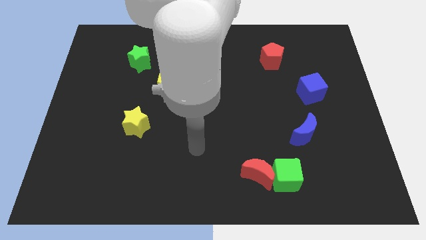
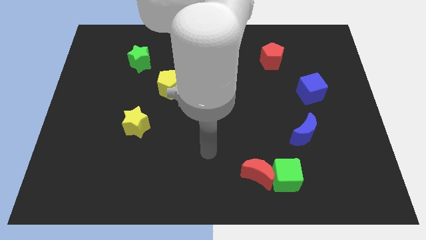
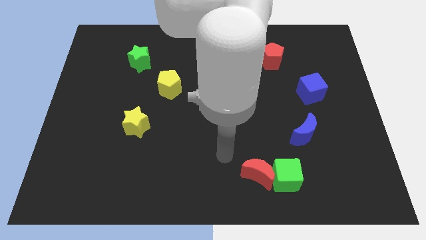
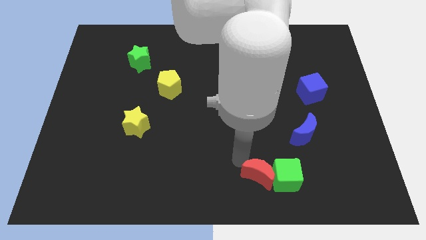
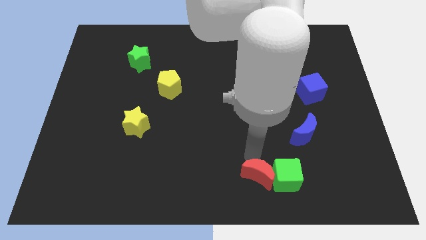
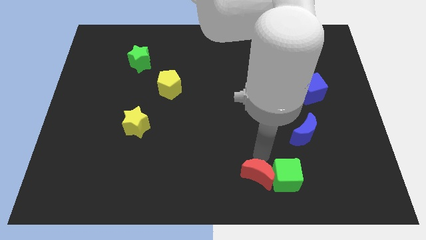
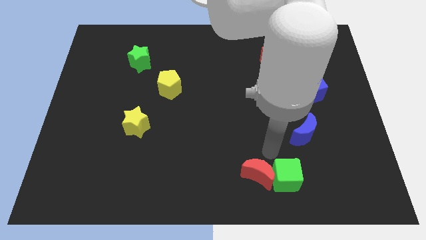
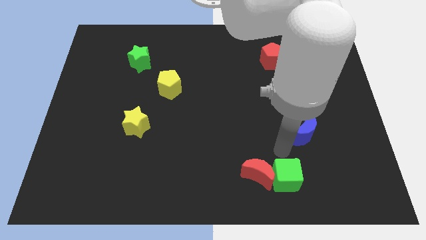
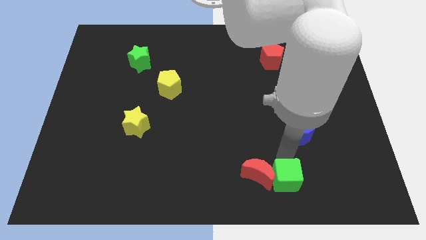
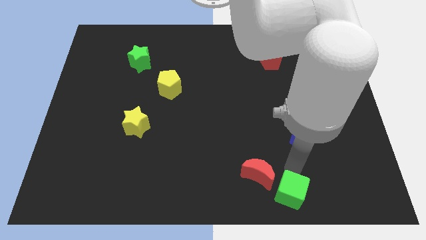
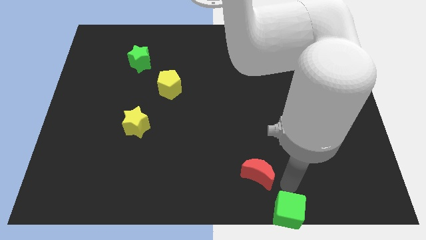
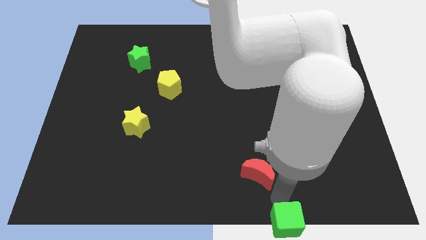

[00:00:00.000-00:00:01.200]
move the red moon away from the green cube

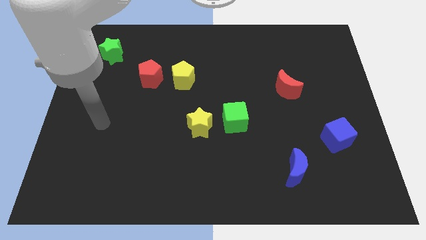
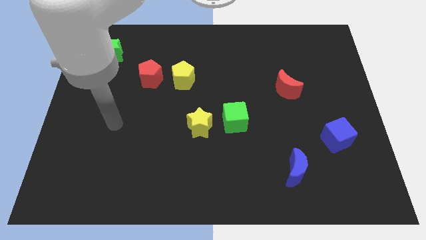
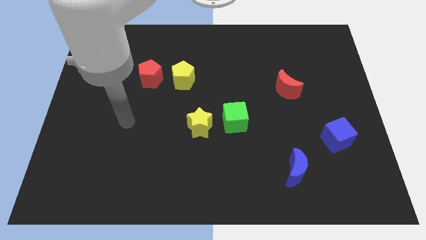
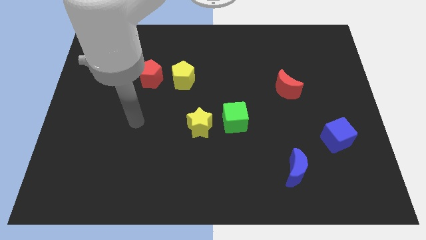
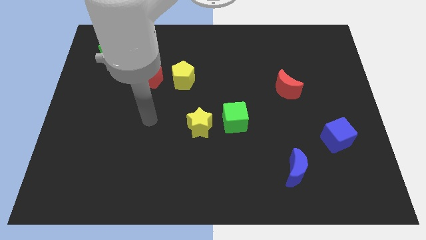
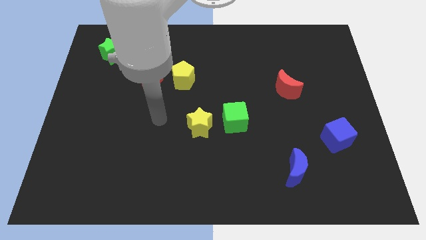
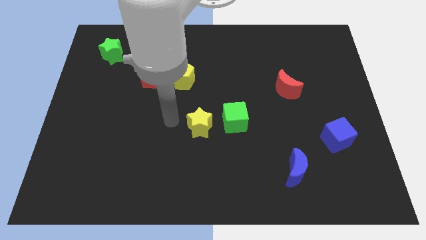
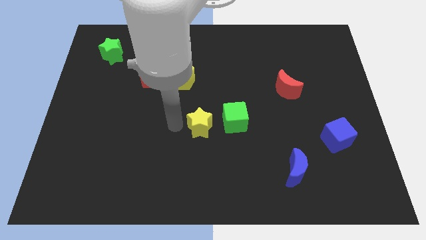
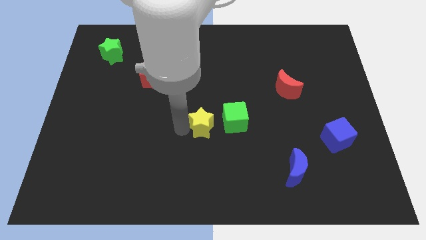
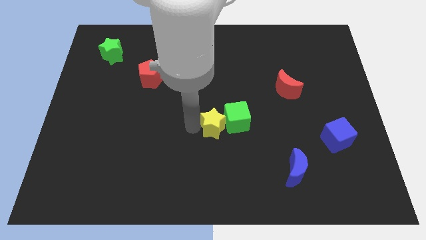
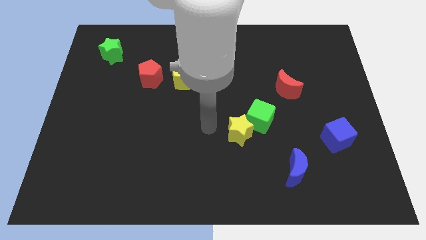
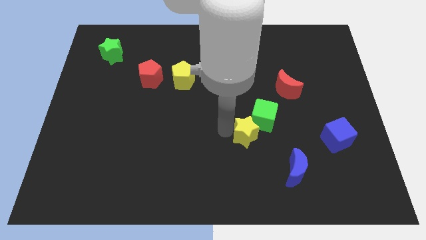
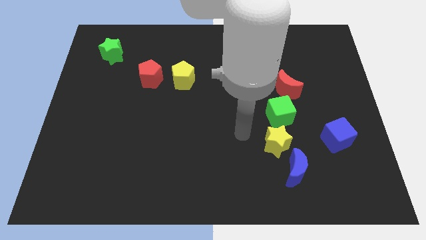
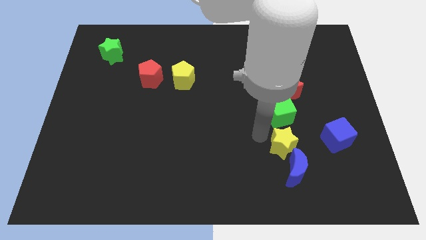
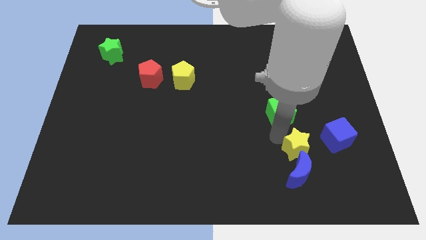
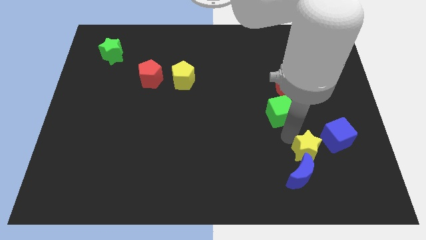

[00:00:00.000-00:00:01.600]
separate the green cube from the yellow star

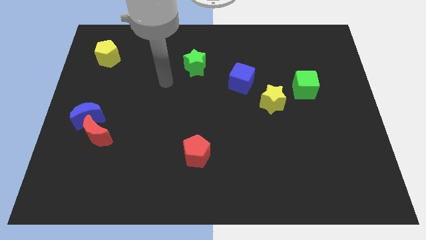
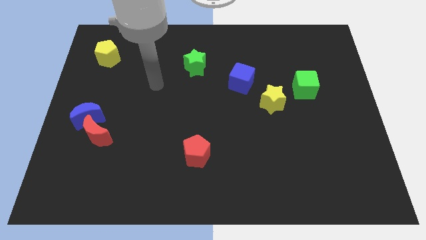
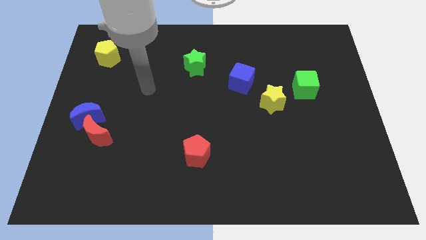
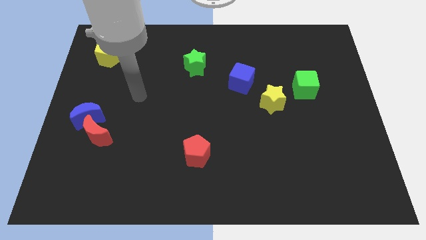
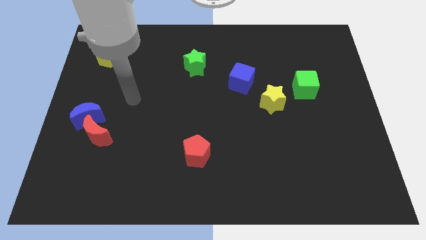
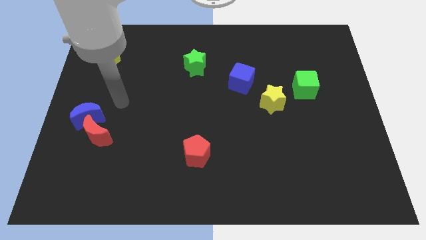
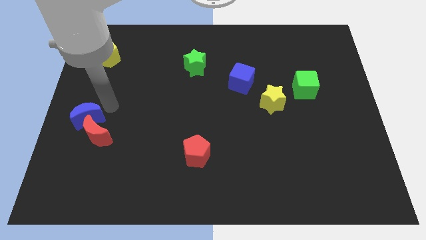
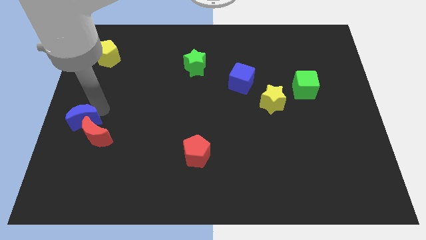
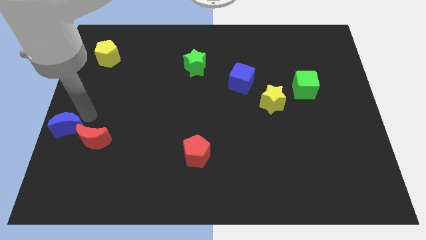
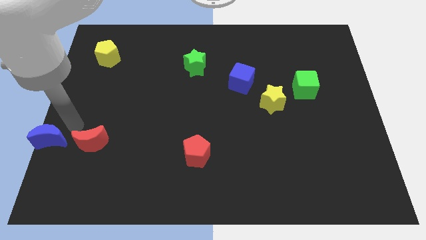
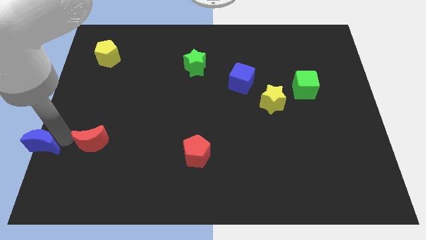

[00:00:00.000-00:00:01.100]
separate the red moon from the blue moon

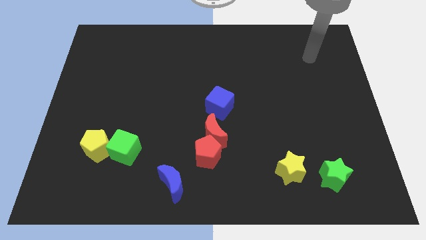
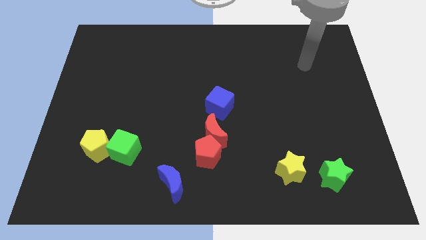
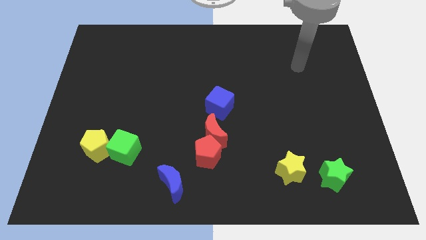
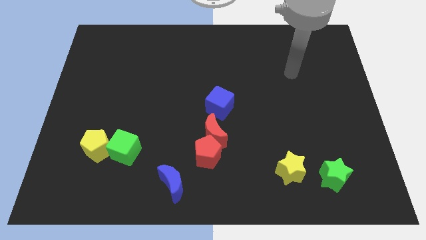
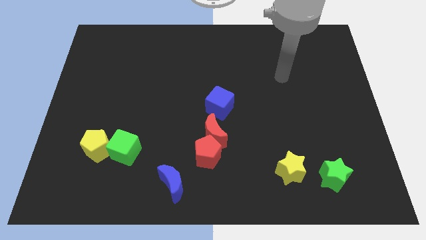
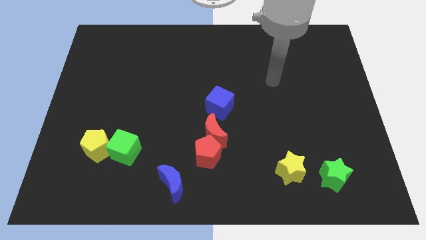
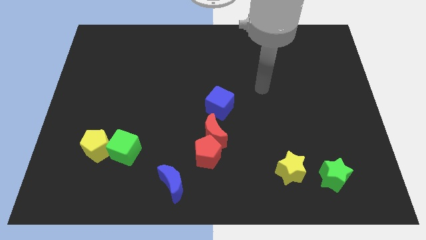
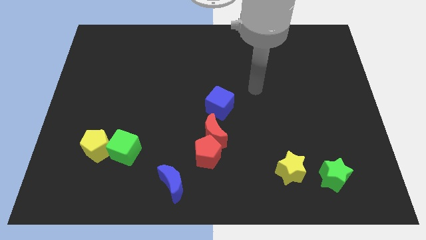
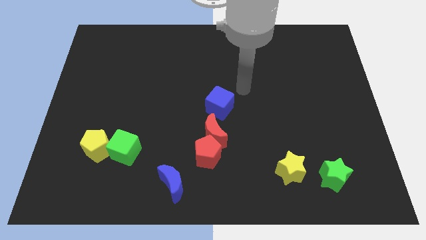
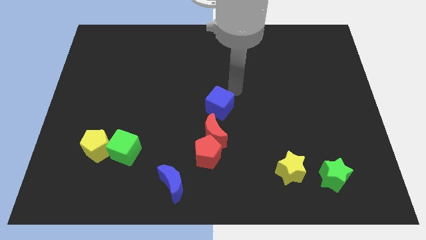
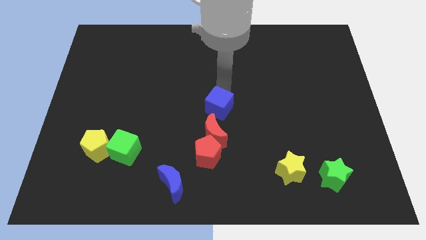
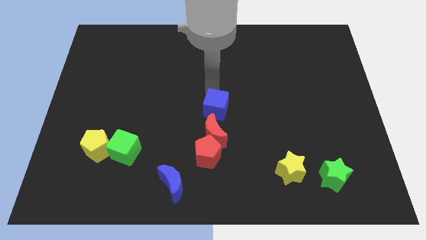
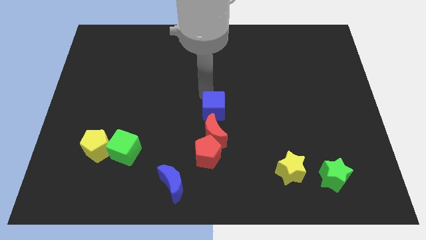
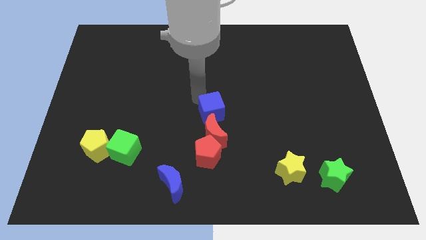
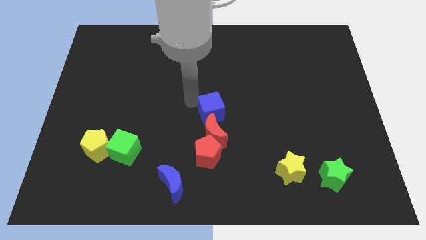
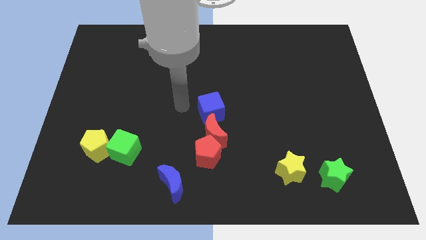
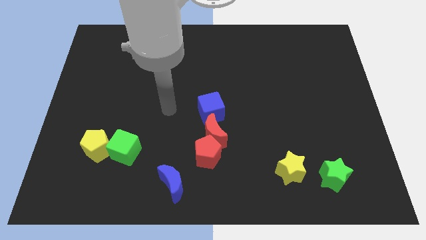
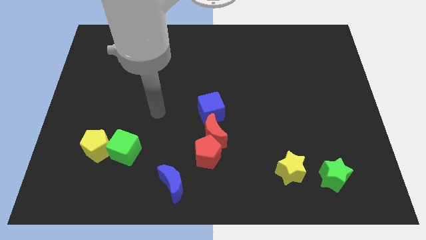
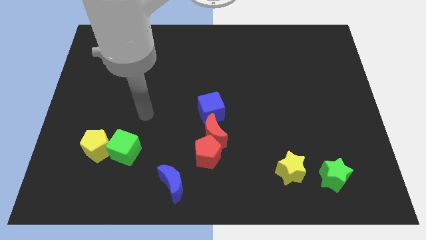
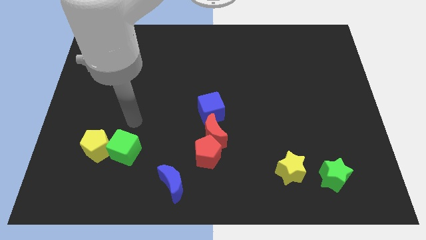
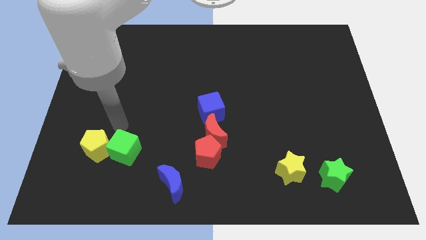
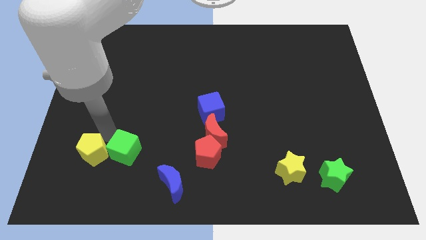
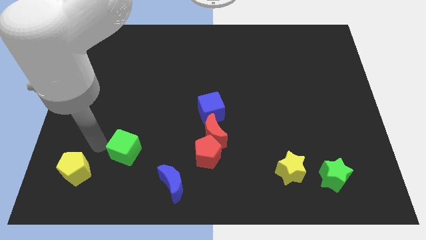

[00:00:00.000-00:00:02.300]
separate the green cube from the yellow pentagon

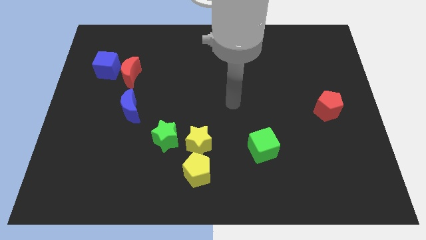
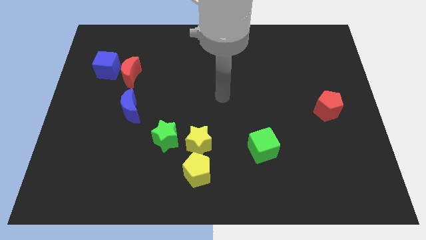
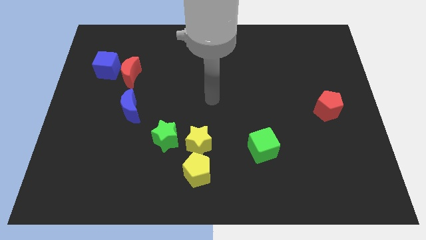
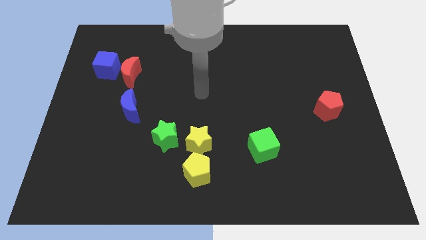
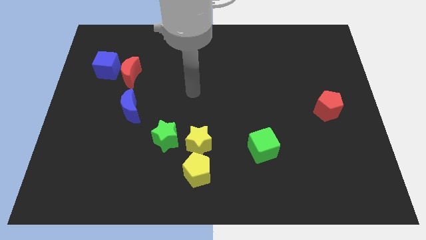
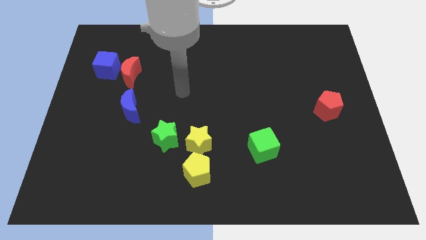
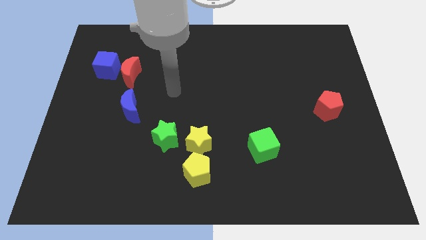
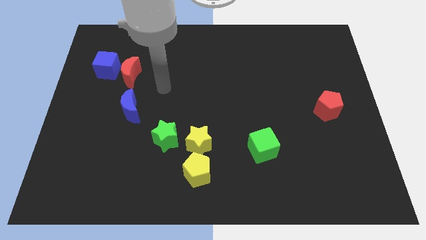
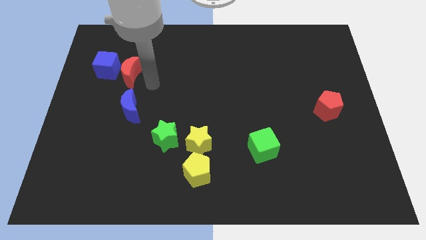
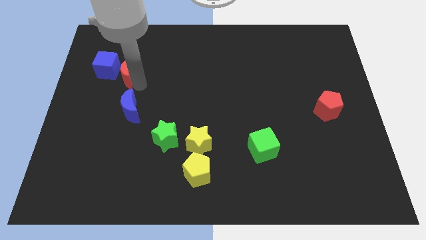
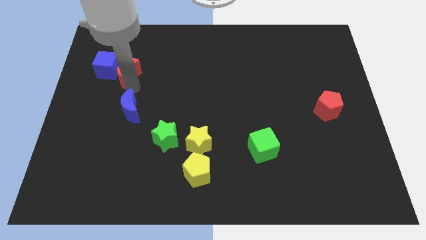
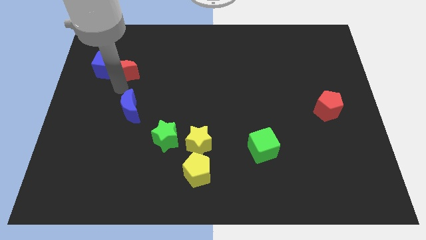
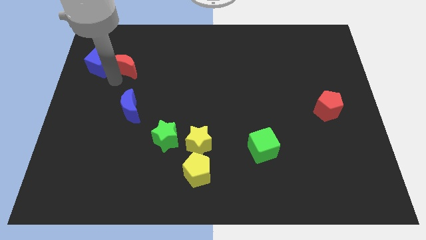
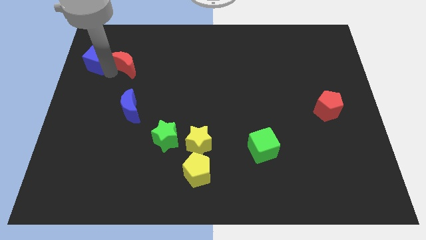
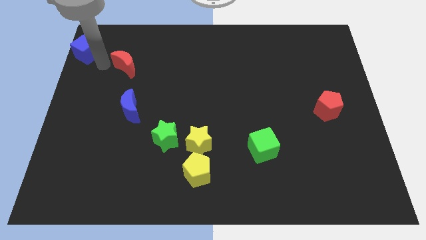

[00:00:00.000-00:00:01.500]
move the red moon away from the blue cube

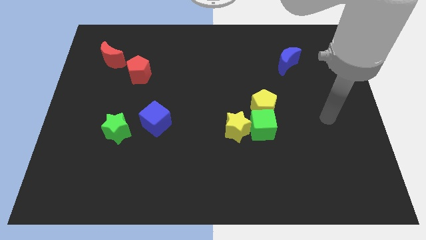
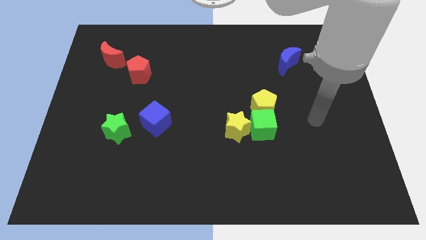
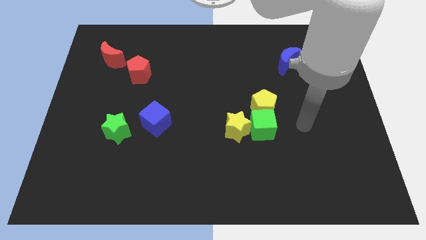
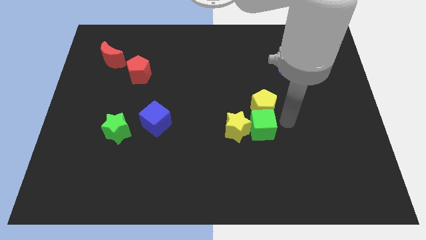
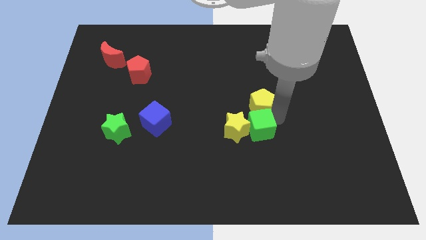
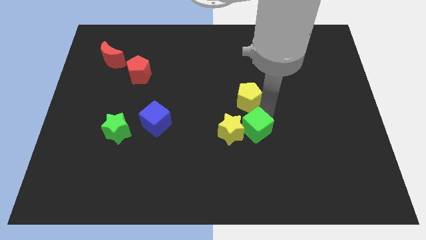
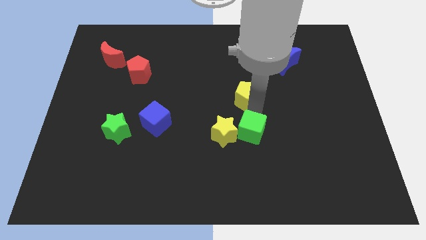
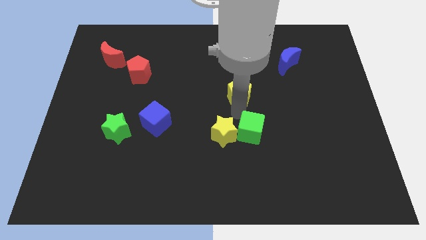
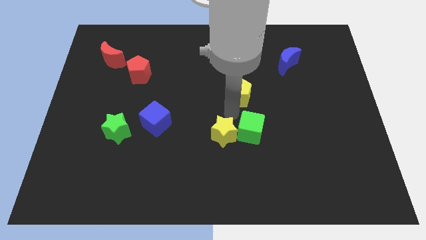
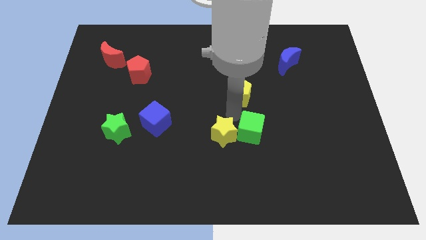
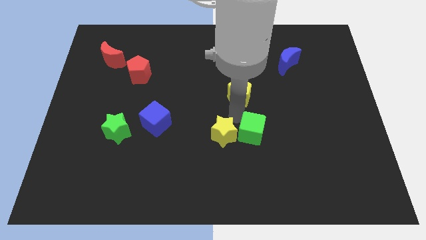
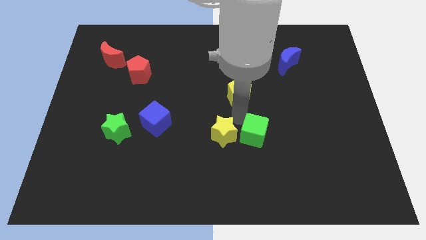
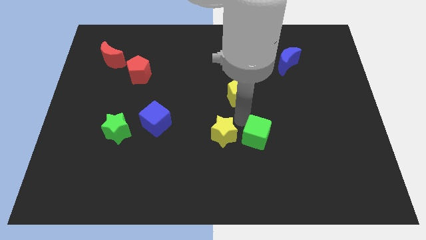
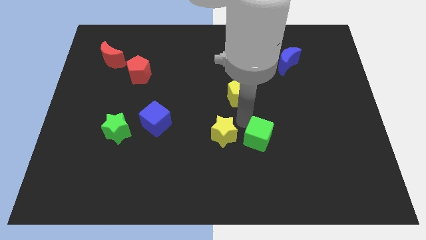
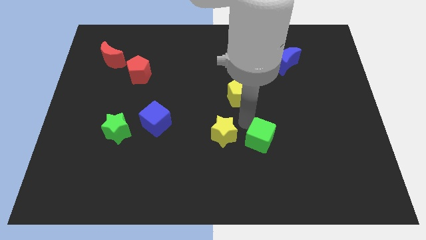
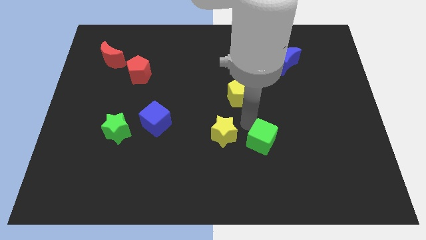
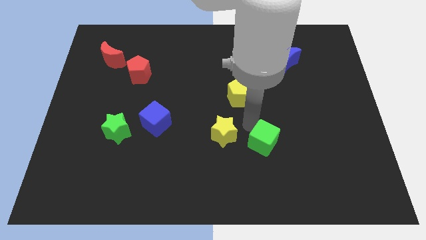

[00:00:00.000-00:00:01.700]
separate the green cube from the yellow pentagon and yellow star
